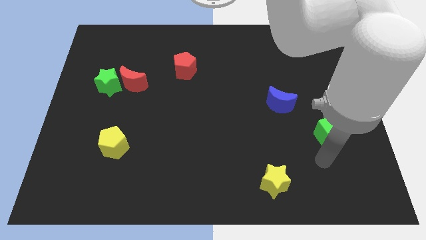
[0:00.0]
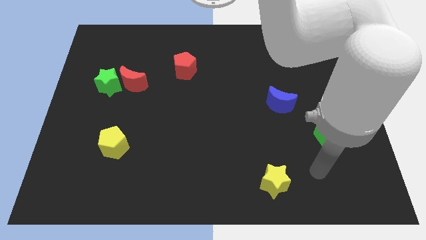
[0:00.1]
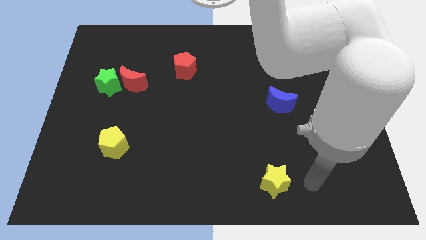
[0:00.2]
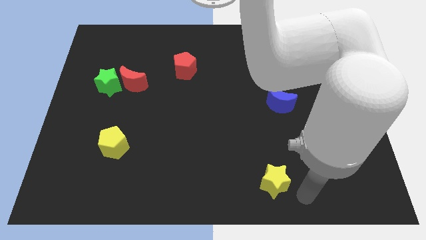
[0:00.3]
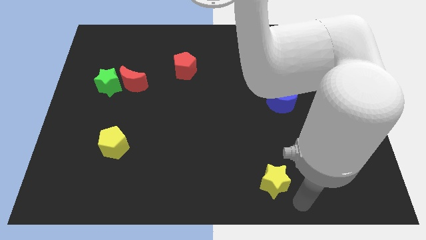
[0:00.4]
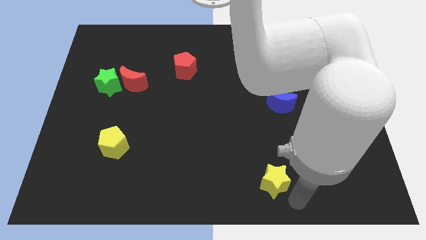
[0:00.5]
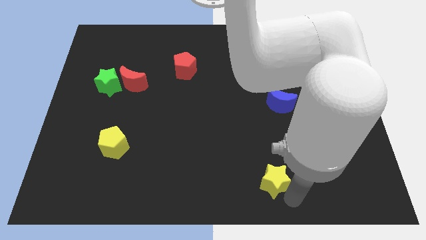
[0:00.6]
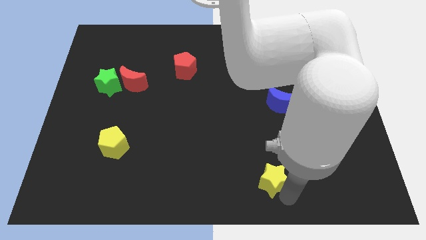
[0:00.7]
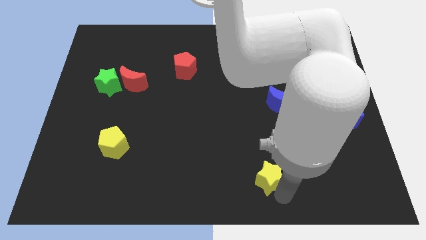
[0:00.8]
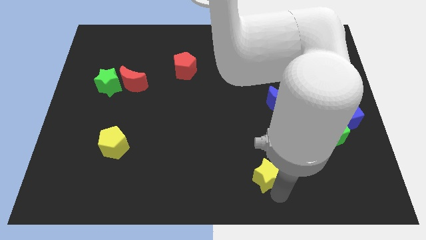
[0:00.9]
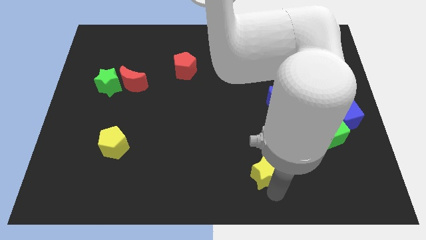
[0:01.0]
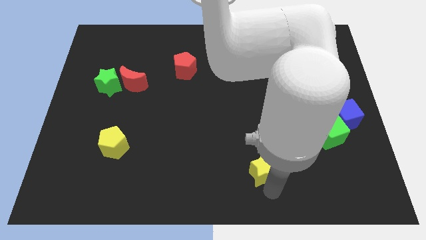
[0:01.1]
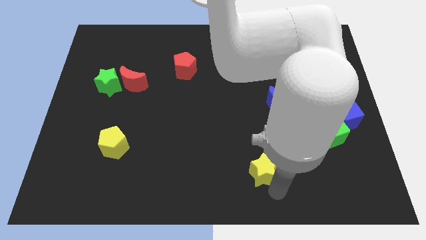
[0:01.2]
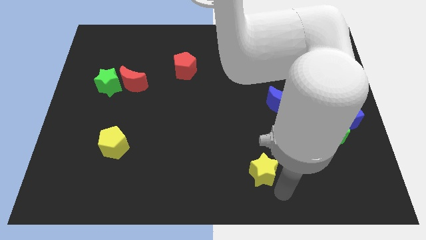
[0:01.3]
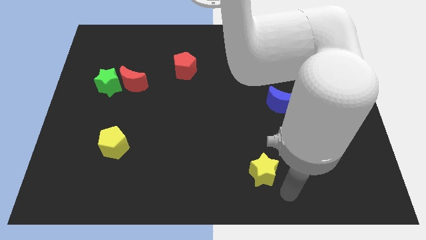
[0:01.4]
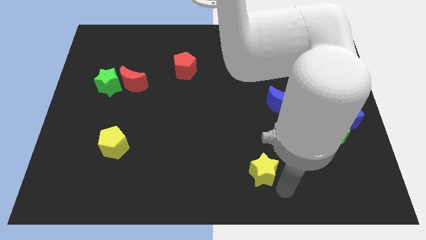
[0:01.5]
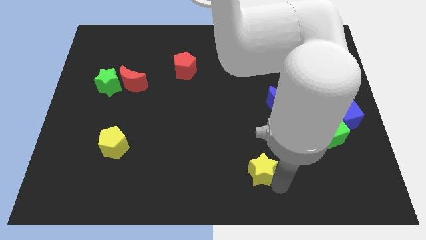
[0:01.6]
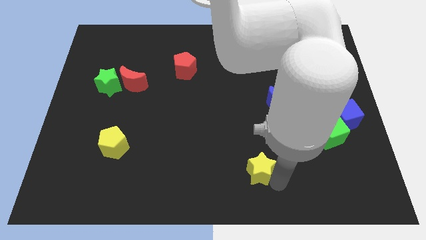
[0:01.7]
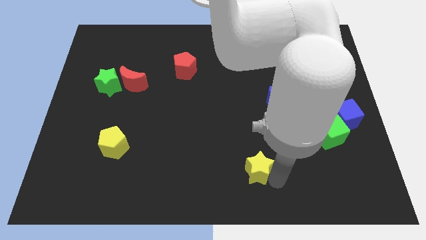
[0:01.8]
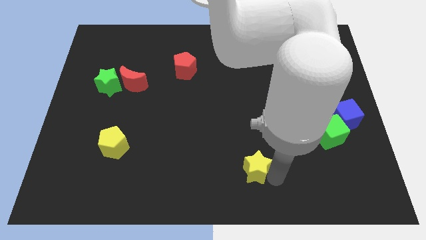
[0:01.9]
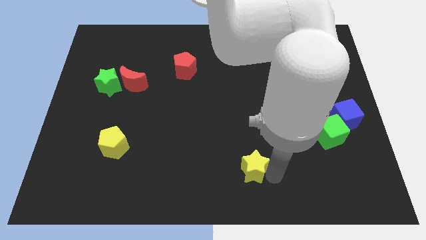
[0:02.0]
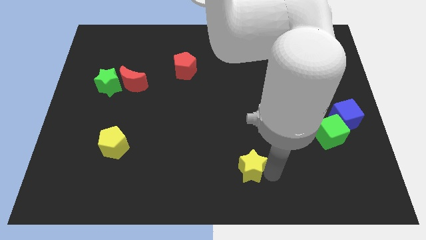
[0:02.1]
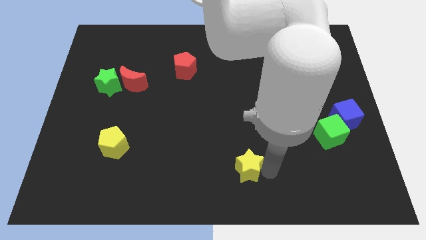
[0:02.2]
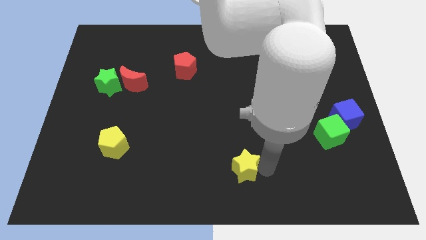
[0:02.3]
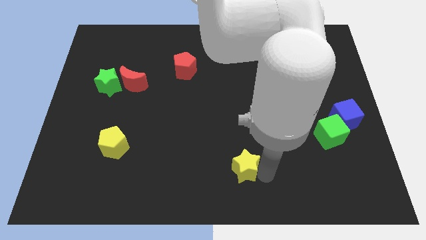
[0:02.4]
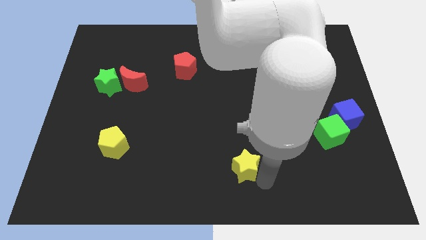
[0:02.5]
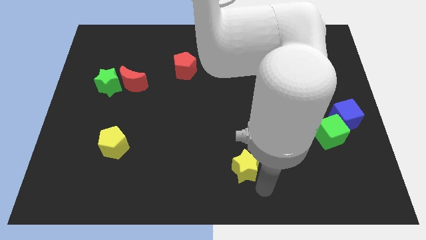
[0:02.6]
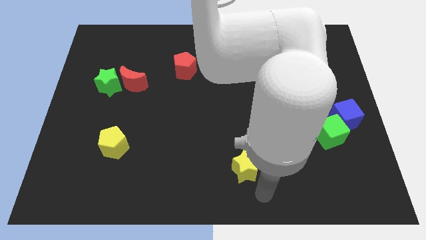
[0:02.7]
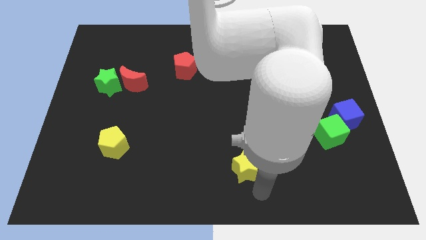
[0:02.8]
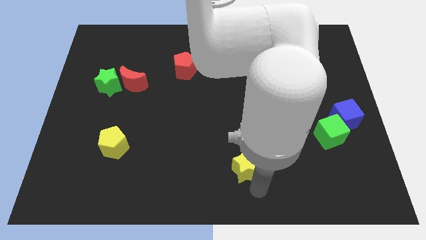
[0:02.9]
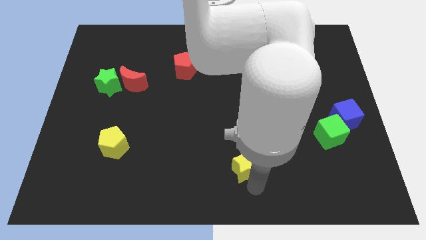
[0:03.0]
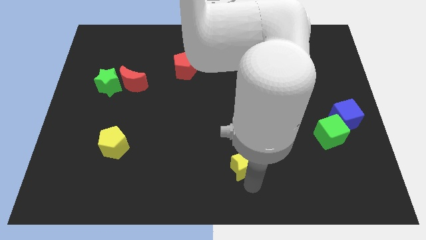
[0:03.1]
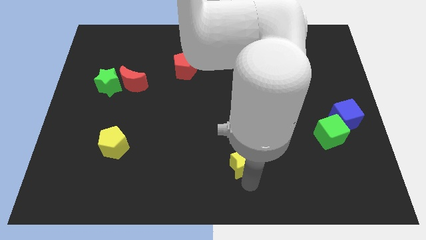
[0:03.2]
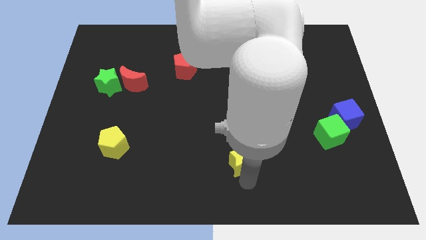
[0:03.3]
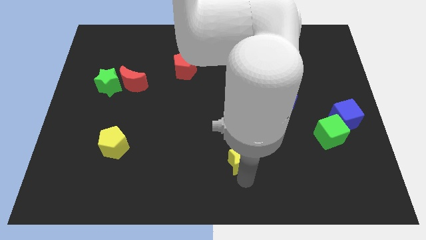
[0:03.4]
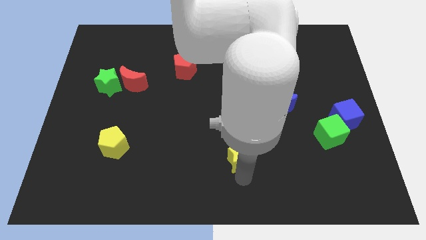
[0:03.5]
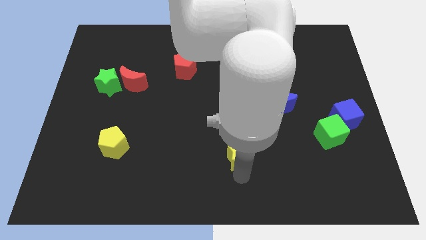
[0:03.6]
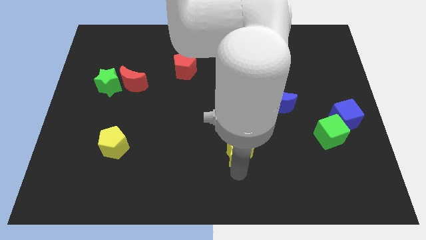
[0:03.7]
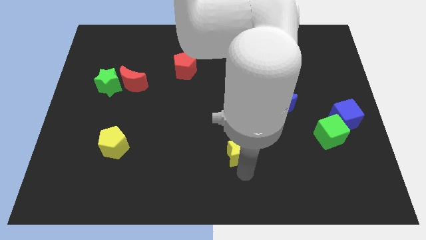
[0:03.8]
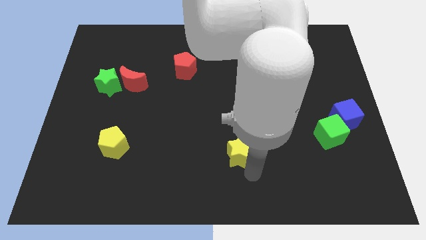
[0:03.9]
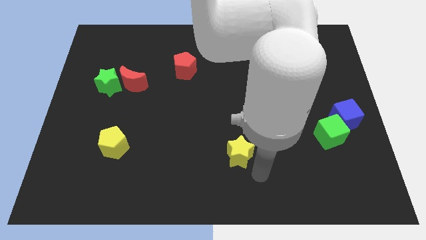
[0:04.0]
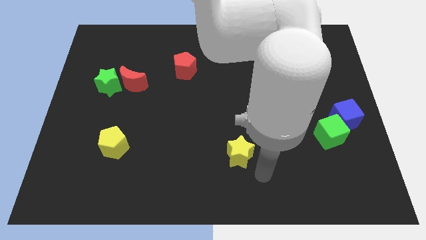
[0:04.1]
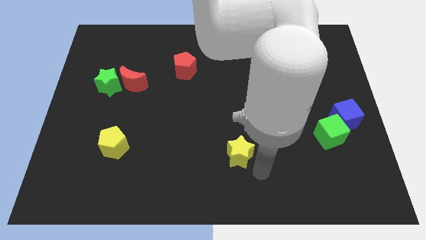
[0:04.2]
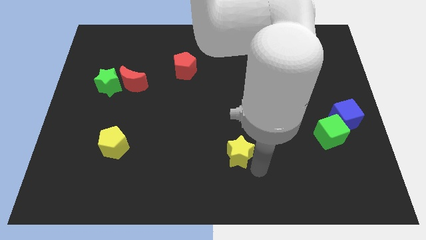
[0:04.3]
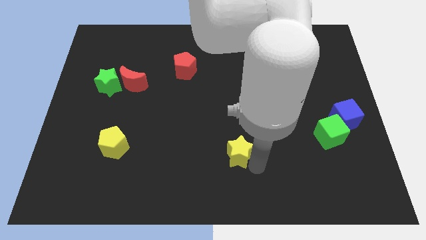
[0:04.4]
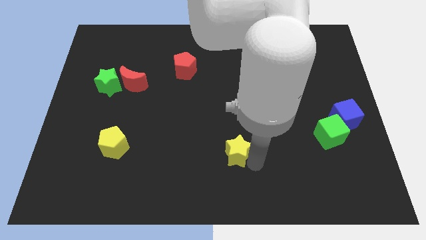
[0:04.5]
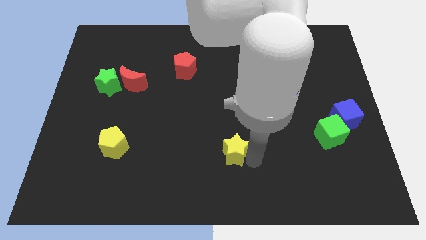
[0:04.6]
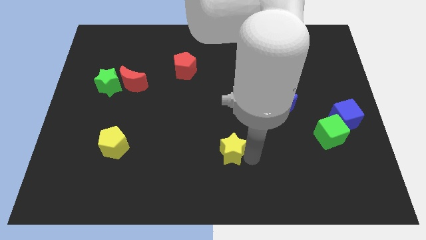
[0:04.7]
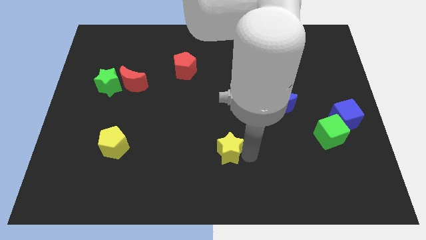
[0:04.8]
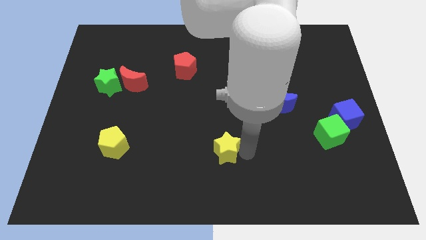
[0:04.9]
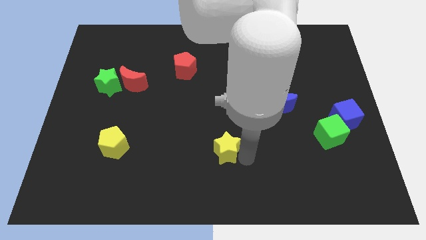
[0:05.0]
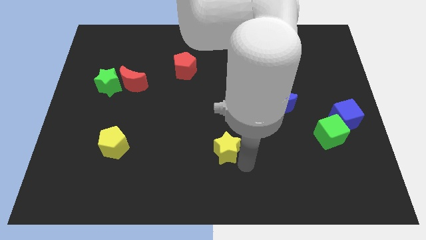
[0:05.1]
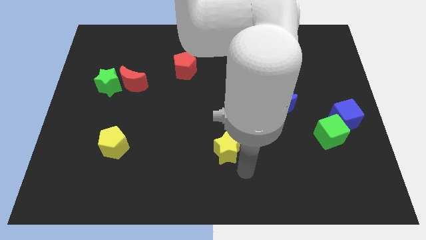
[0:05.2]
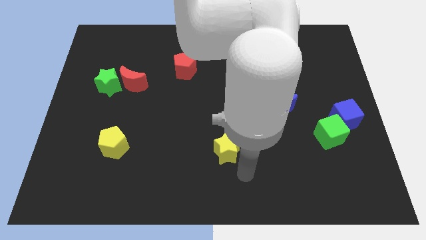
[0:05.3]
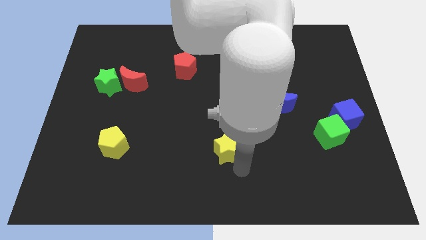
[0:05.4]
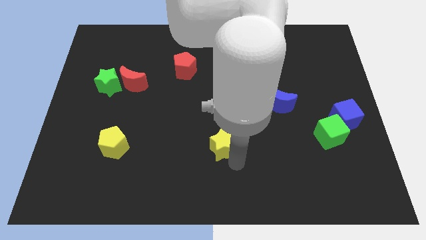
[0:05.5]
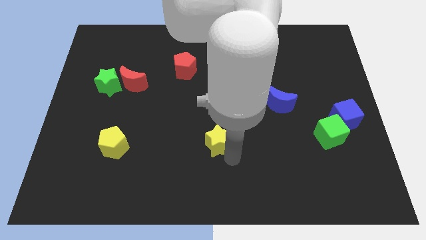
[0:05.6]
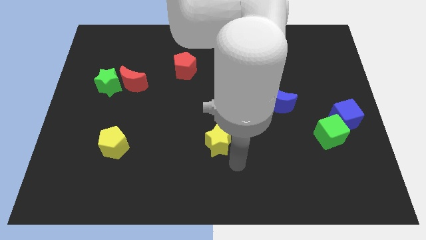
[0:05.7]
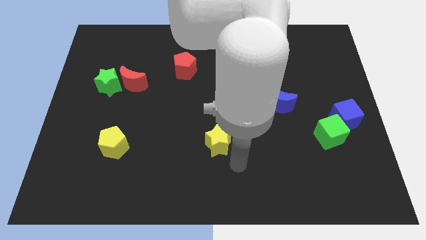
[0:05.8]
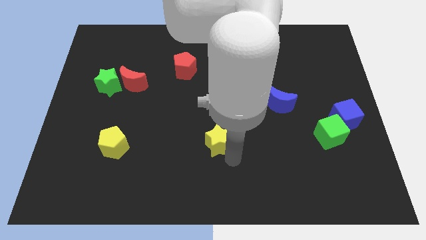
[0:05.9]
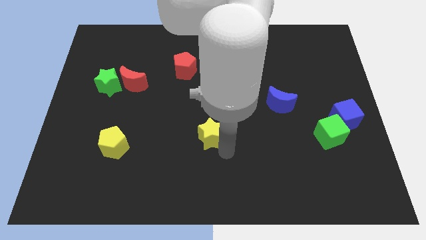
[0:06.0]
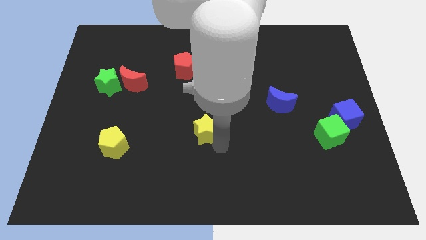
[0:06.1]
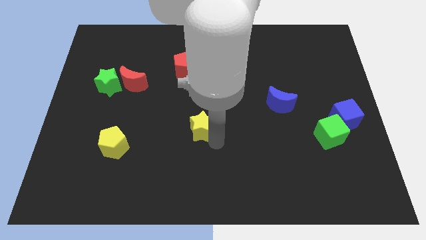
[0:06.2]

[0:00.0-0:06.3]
push the yellow star upwards and to the left diagonally

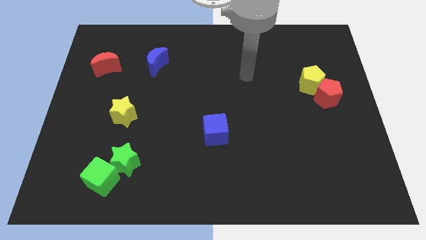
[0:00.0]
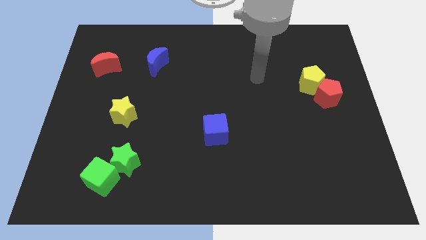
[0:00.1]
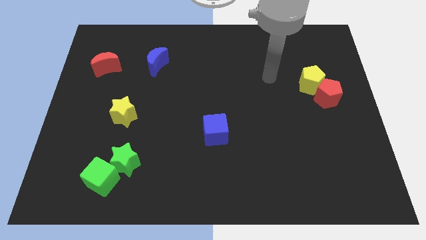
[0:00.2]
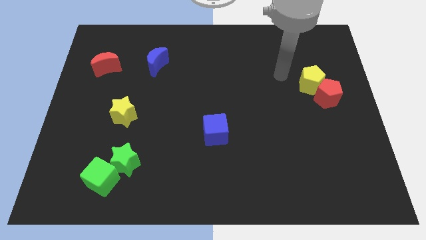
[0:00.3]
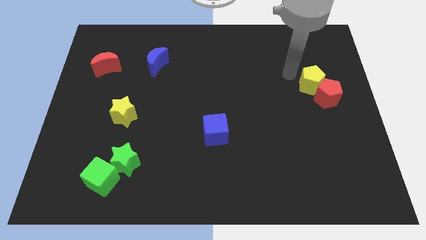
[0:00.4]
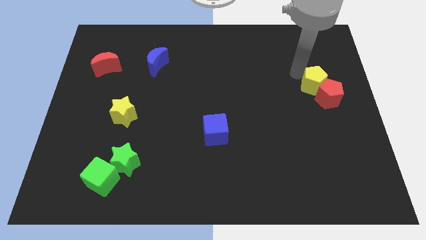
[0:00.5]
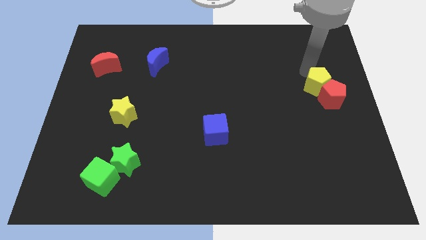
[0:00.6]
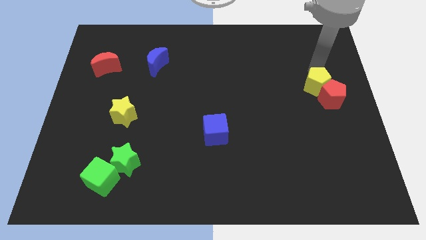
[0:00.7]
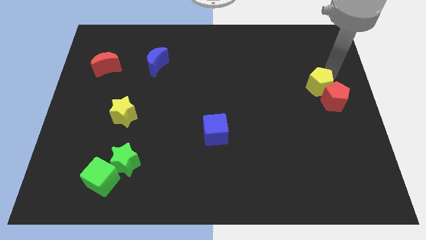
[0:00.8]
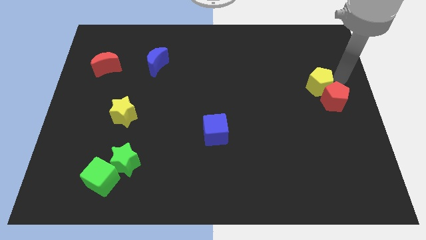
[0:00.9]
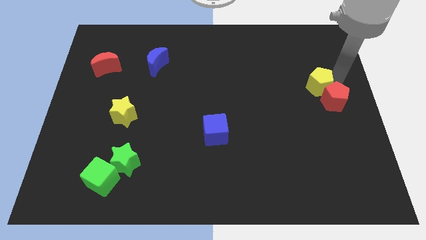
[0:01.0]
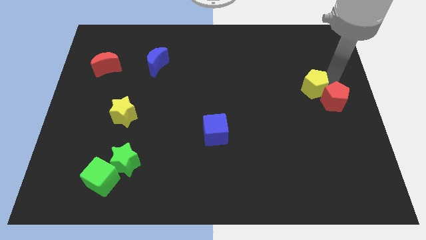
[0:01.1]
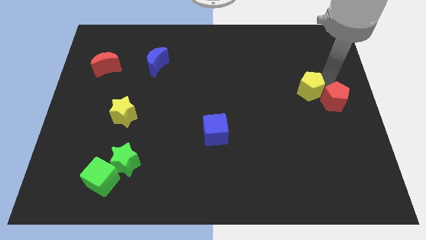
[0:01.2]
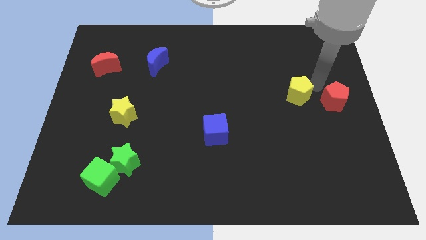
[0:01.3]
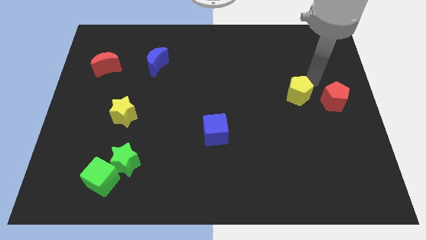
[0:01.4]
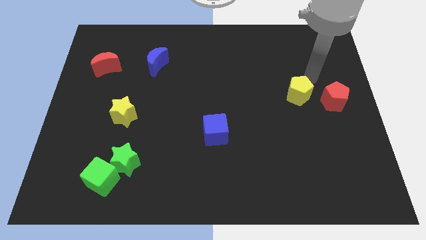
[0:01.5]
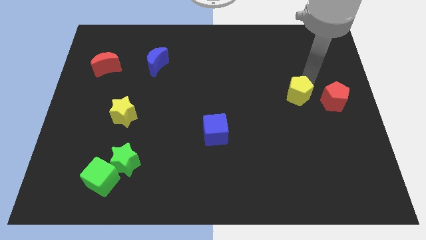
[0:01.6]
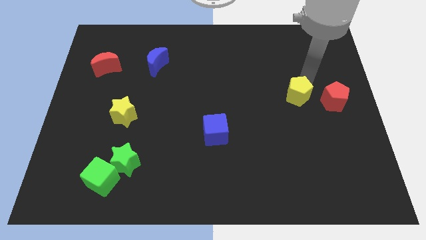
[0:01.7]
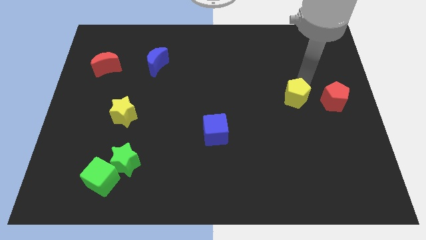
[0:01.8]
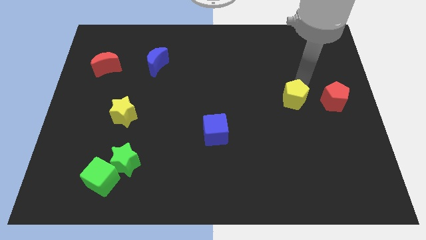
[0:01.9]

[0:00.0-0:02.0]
slightly push the yellow pentagon down and left
